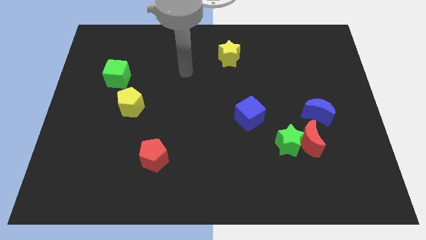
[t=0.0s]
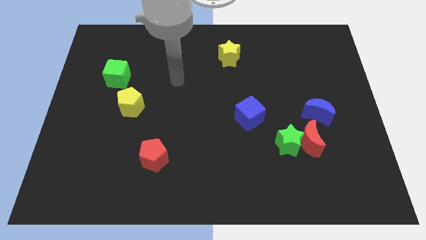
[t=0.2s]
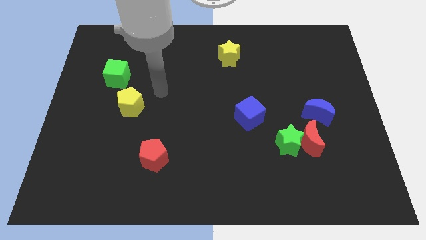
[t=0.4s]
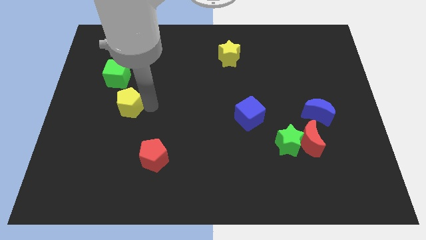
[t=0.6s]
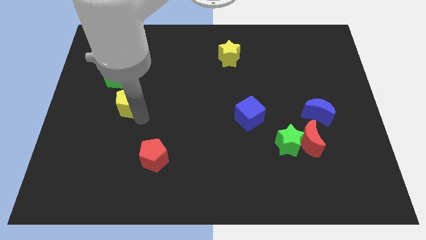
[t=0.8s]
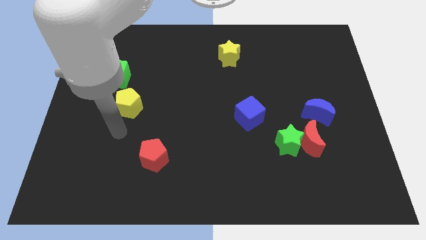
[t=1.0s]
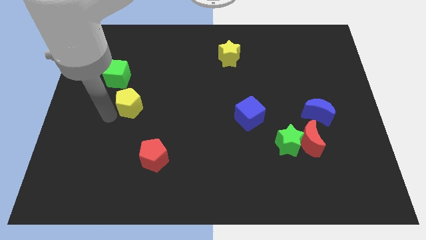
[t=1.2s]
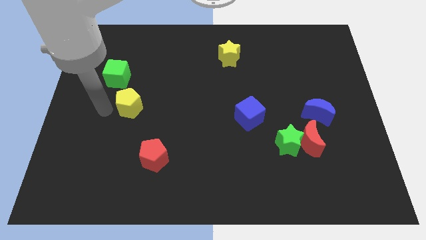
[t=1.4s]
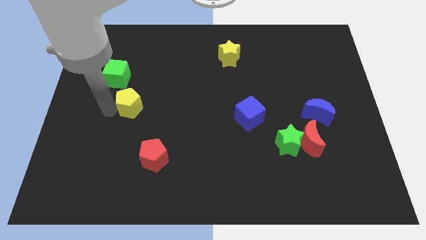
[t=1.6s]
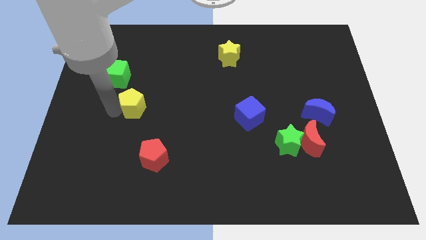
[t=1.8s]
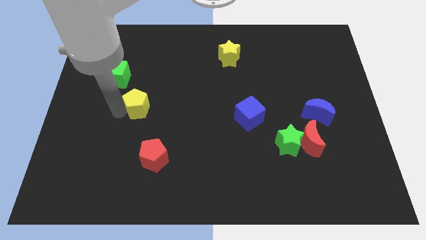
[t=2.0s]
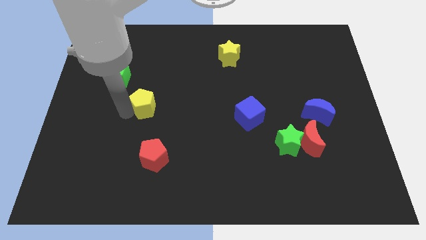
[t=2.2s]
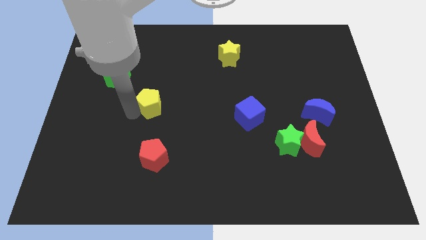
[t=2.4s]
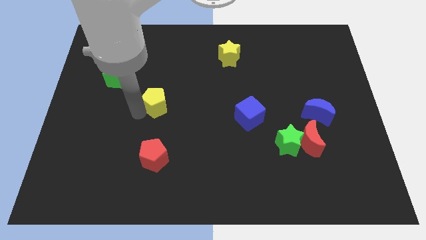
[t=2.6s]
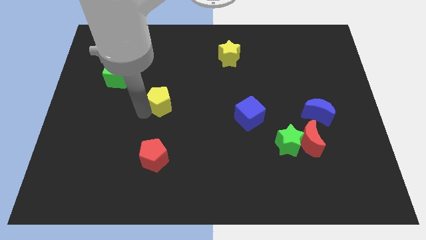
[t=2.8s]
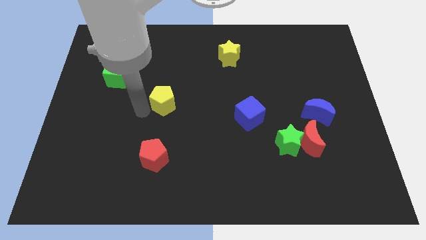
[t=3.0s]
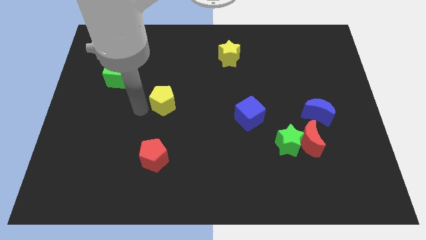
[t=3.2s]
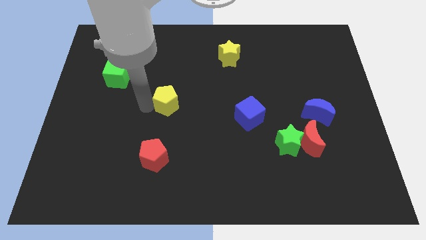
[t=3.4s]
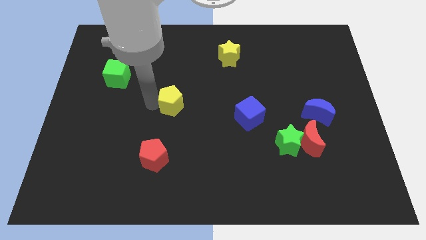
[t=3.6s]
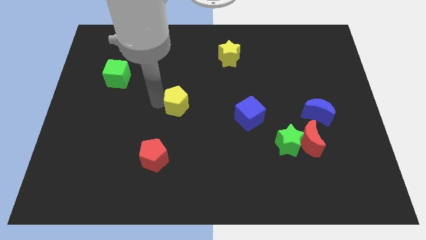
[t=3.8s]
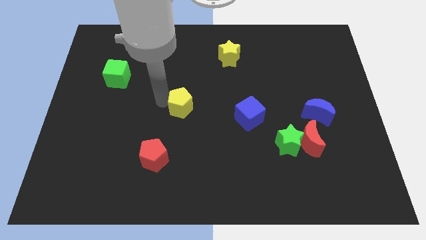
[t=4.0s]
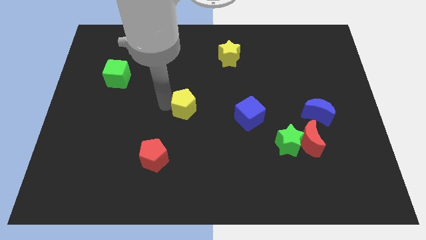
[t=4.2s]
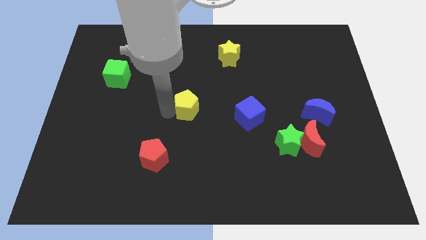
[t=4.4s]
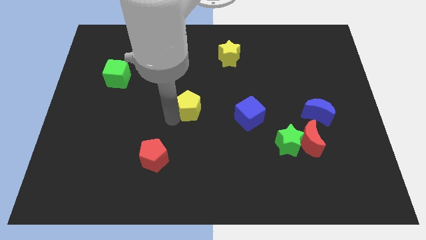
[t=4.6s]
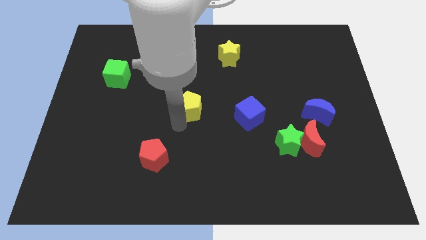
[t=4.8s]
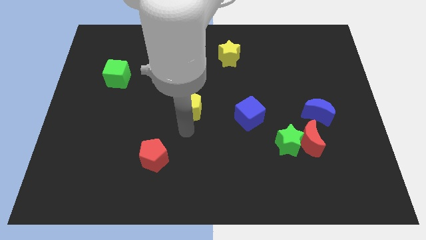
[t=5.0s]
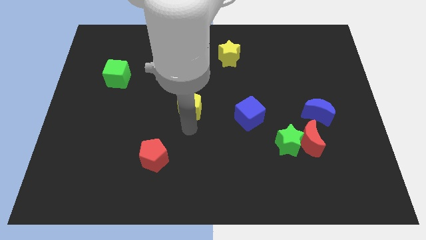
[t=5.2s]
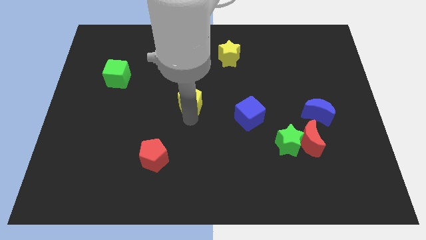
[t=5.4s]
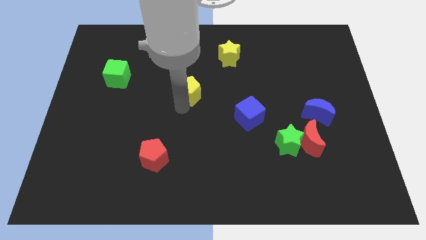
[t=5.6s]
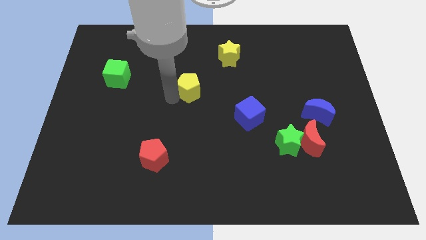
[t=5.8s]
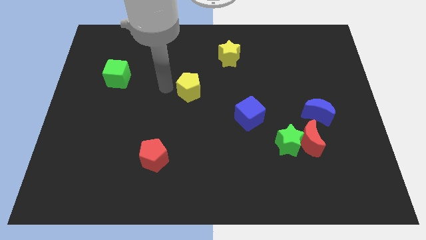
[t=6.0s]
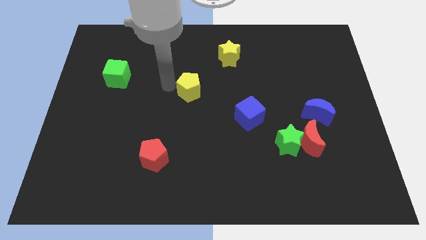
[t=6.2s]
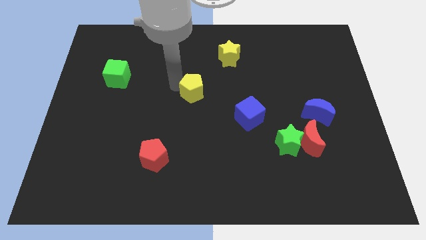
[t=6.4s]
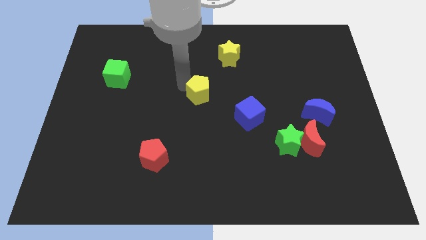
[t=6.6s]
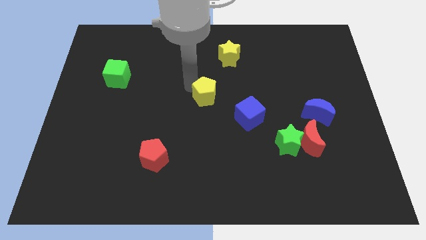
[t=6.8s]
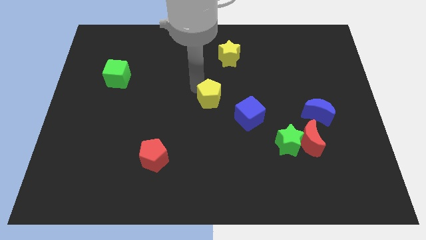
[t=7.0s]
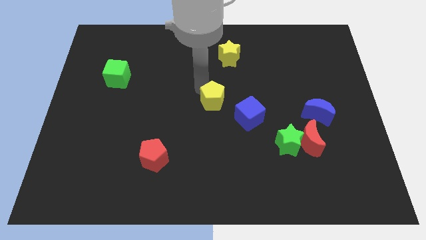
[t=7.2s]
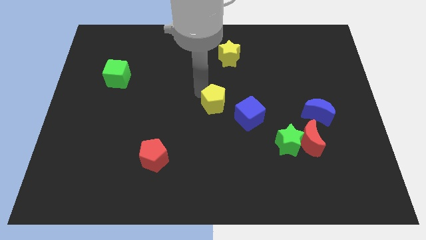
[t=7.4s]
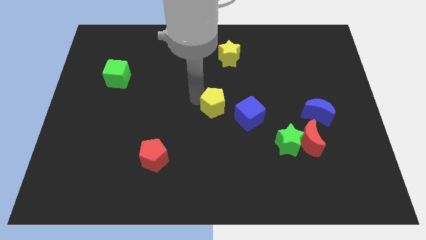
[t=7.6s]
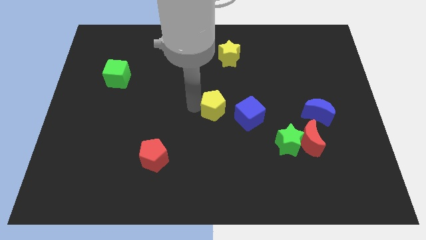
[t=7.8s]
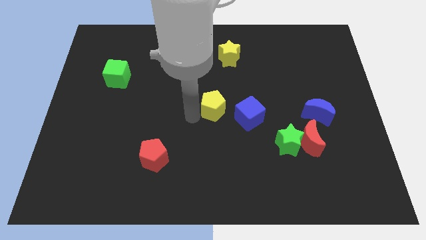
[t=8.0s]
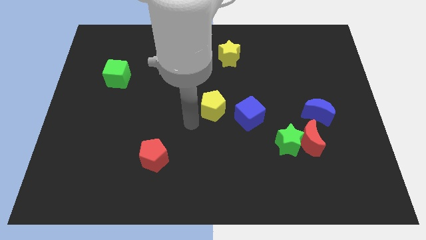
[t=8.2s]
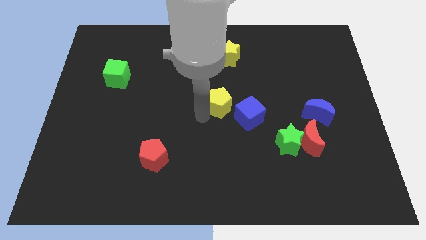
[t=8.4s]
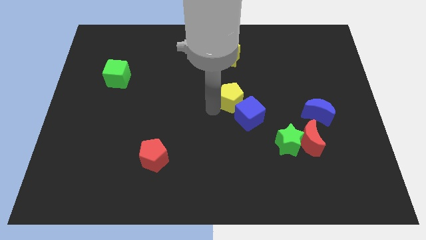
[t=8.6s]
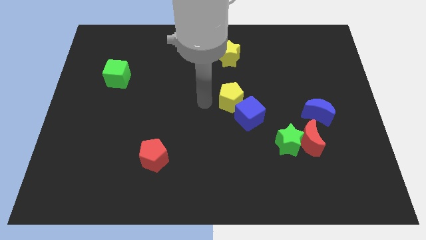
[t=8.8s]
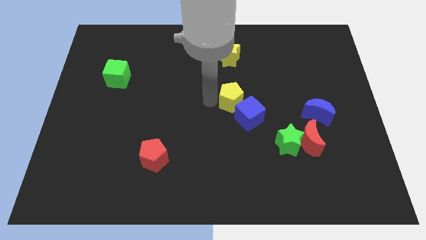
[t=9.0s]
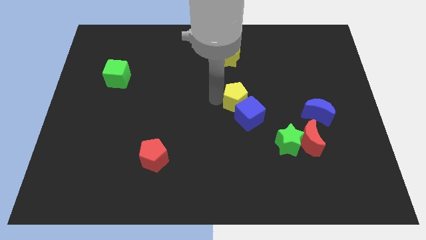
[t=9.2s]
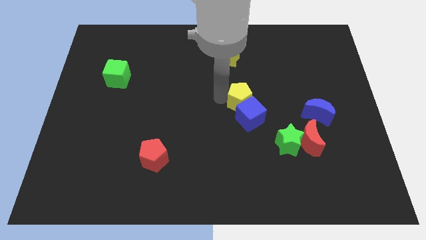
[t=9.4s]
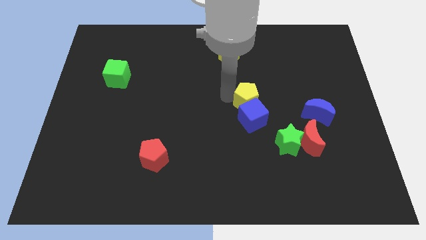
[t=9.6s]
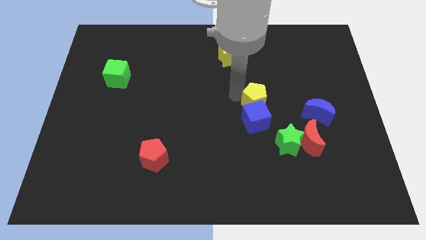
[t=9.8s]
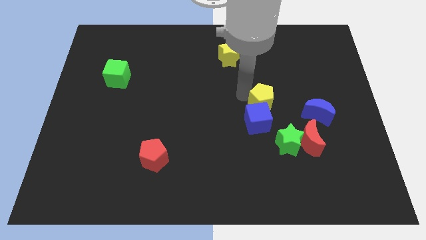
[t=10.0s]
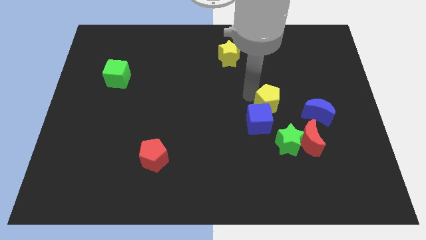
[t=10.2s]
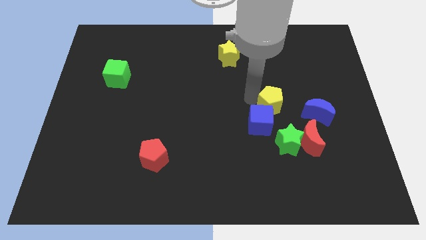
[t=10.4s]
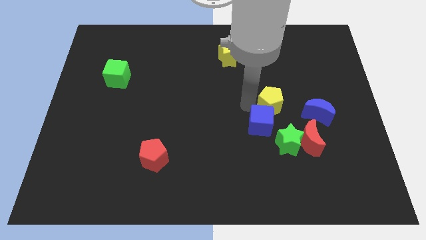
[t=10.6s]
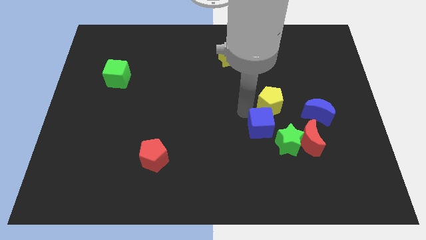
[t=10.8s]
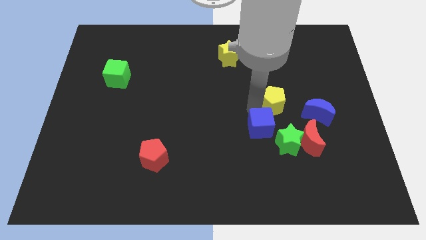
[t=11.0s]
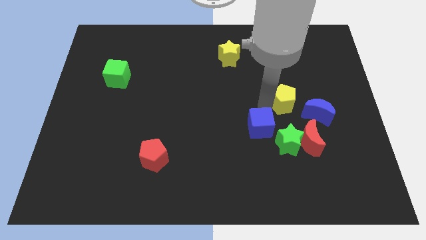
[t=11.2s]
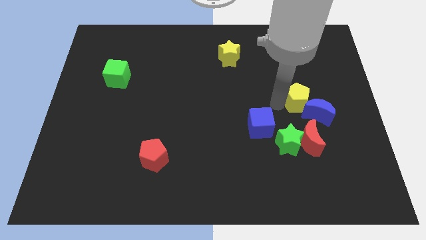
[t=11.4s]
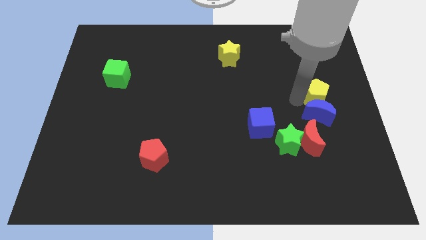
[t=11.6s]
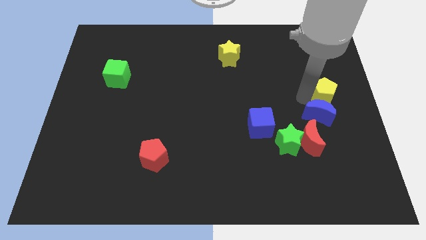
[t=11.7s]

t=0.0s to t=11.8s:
move the yellow pentagon to the right side of the board
